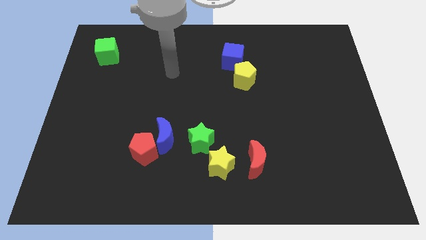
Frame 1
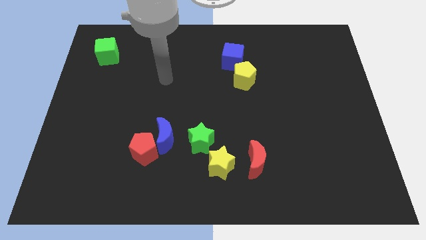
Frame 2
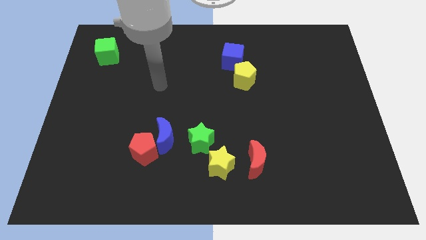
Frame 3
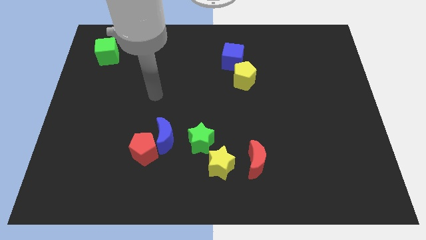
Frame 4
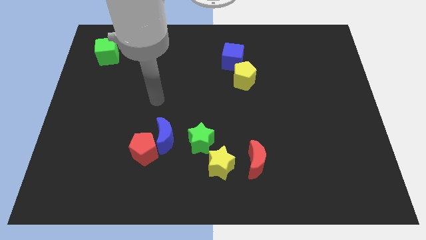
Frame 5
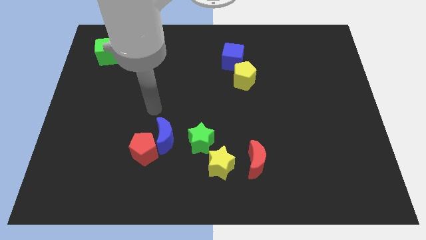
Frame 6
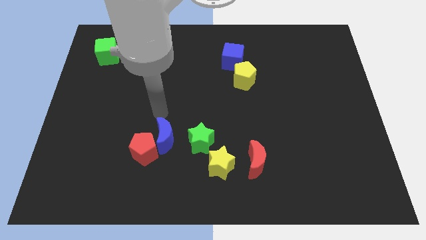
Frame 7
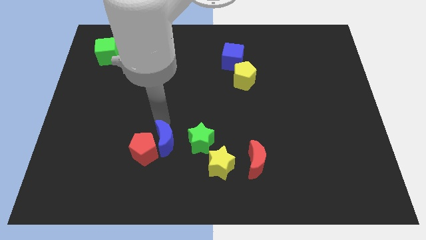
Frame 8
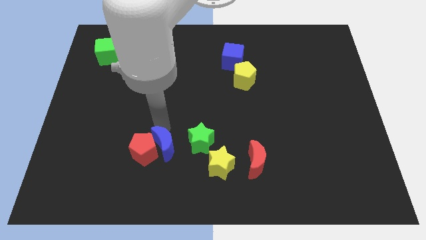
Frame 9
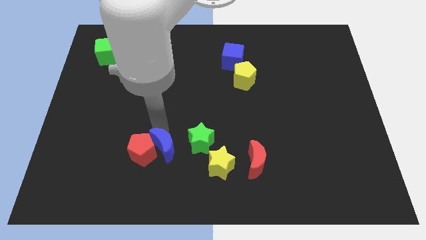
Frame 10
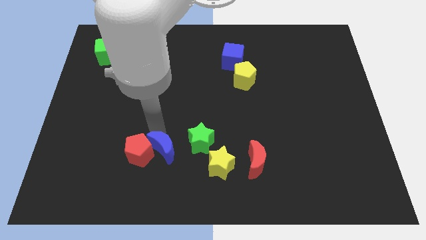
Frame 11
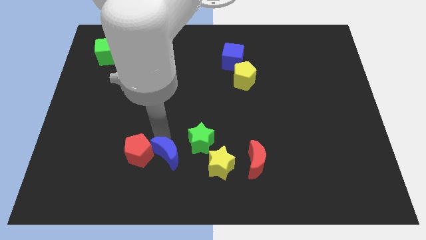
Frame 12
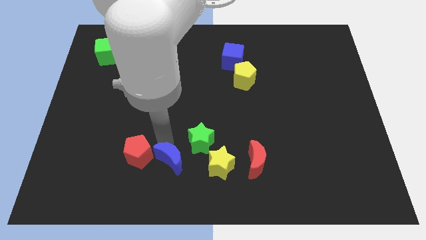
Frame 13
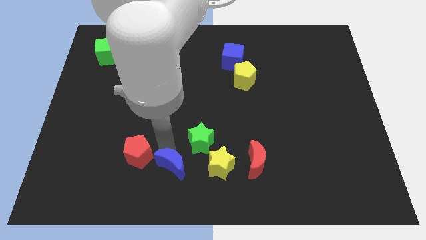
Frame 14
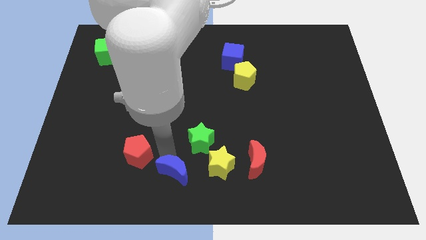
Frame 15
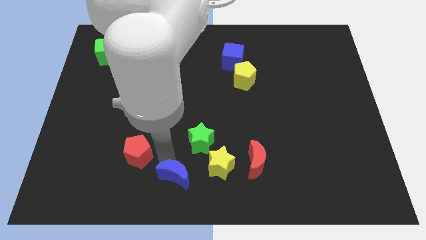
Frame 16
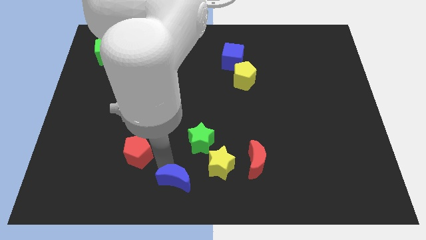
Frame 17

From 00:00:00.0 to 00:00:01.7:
move the red pentagon away from the blue moon

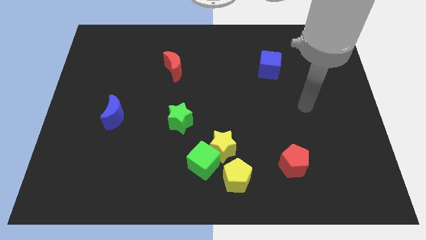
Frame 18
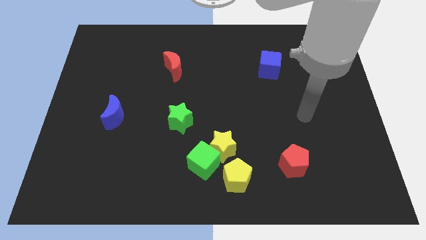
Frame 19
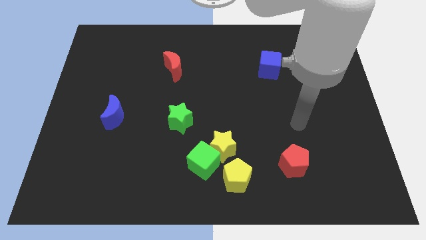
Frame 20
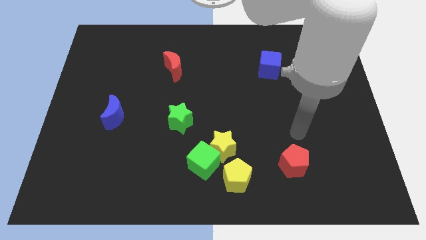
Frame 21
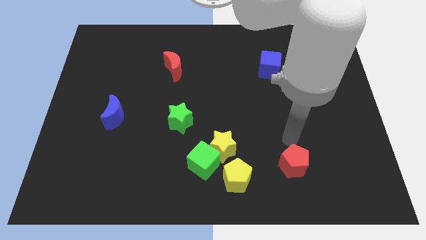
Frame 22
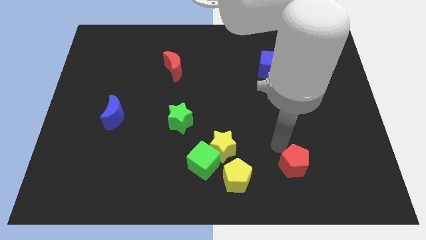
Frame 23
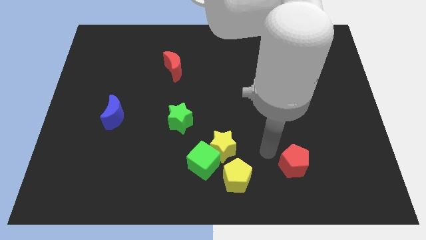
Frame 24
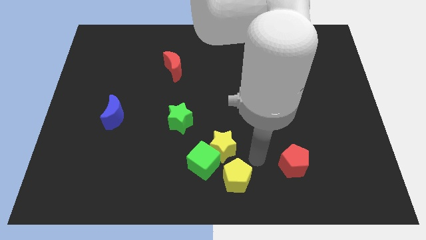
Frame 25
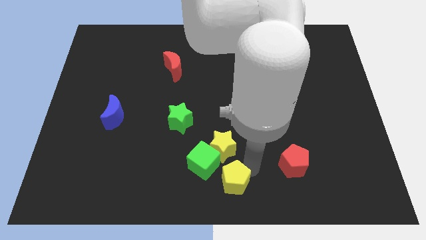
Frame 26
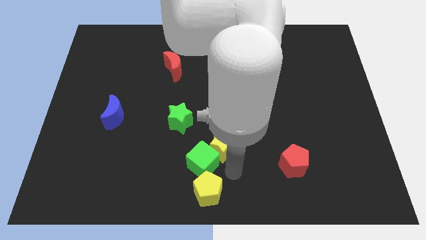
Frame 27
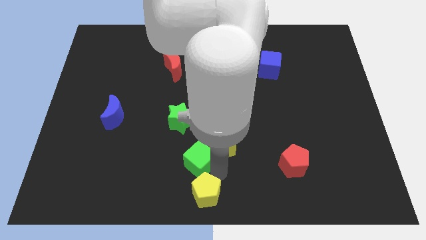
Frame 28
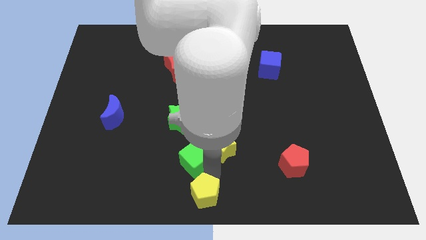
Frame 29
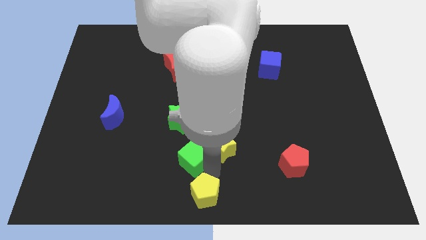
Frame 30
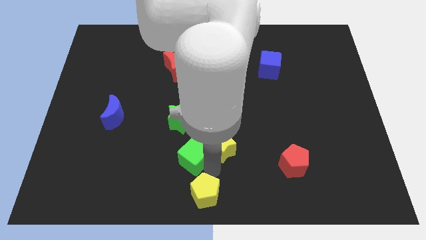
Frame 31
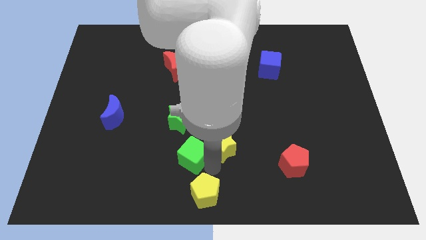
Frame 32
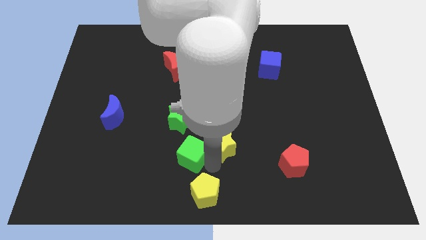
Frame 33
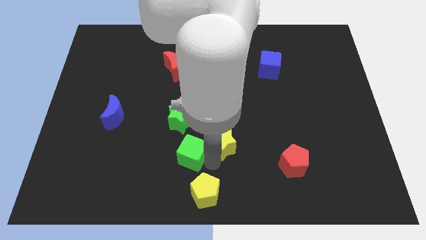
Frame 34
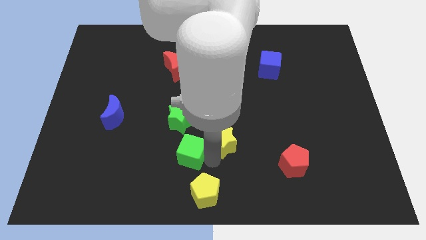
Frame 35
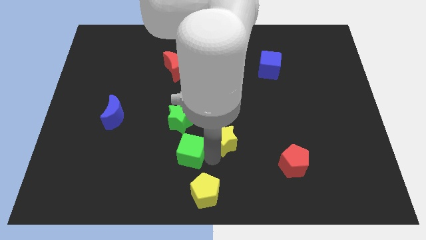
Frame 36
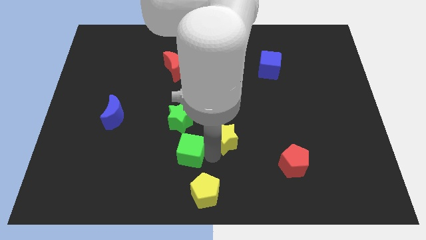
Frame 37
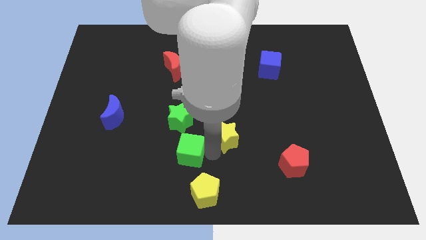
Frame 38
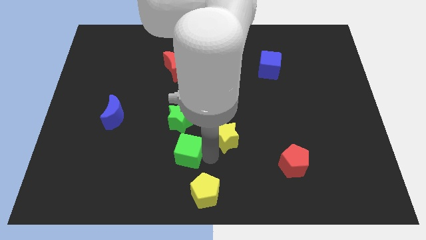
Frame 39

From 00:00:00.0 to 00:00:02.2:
pull the yellow star apart from the green cube and yellow pentagon

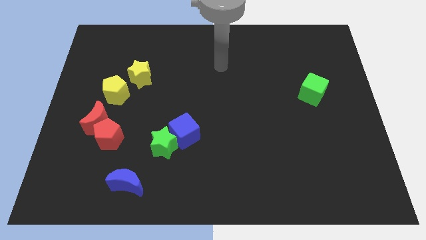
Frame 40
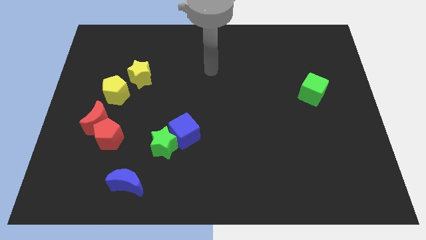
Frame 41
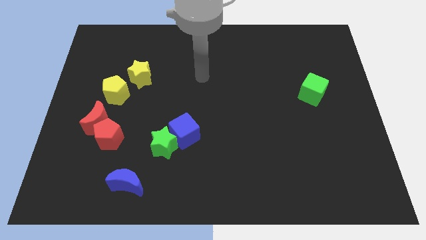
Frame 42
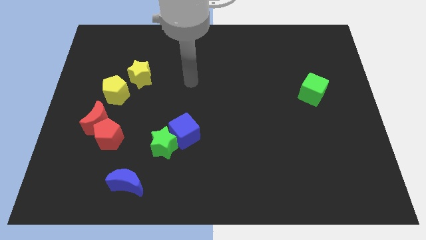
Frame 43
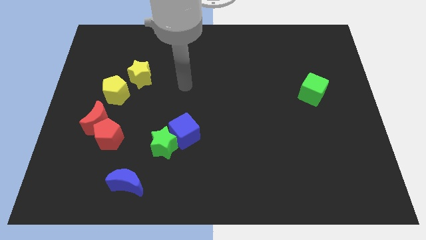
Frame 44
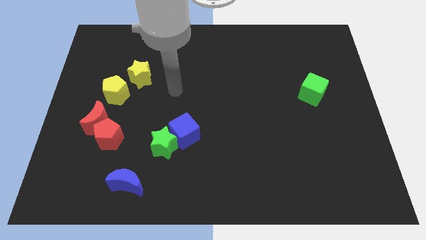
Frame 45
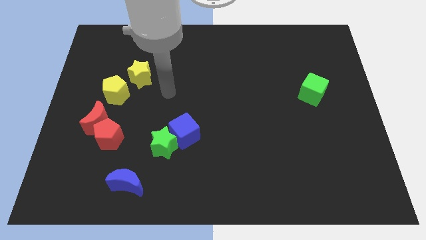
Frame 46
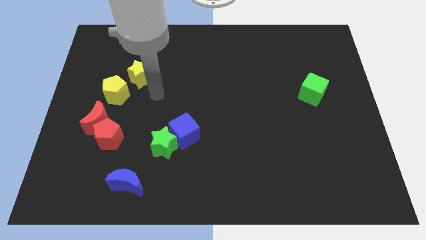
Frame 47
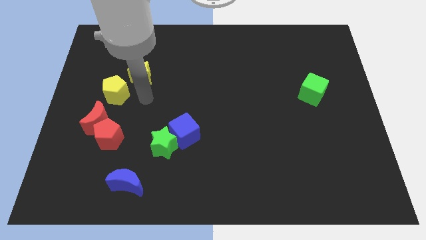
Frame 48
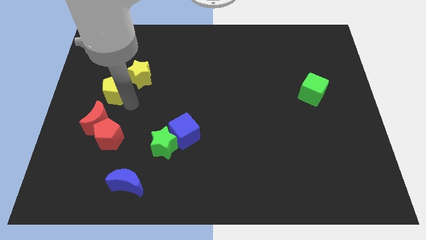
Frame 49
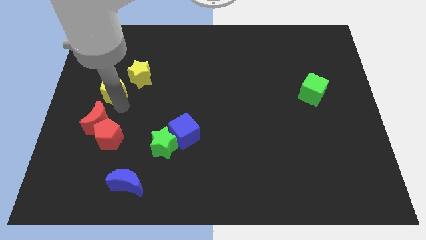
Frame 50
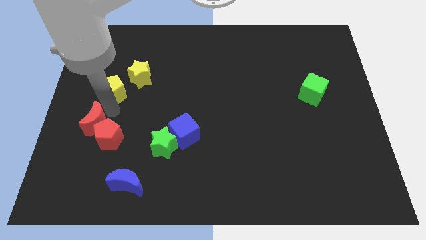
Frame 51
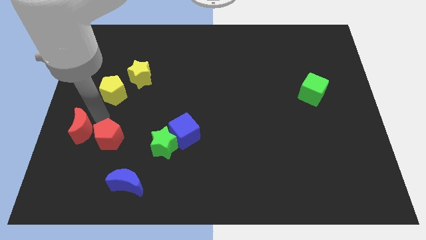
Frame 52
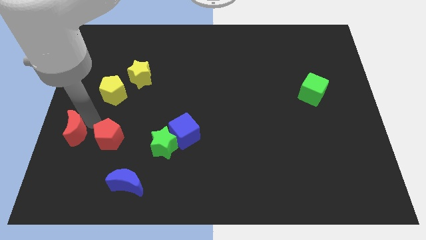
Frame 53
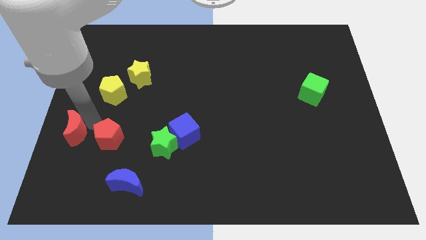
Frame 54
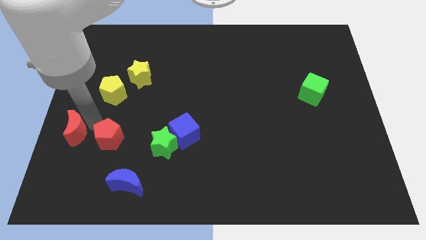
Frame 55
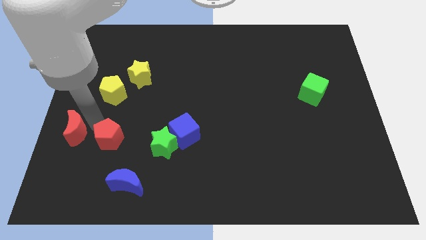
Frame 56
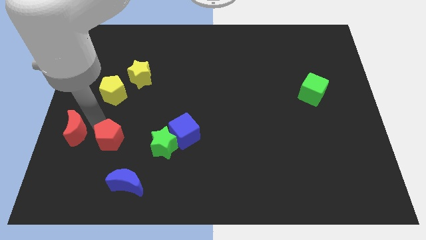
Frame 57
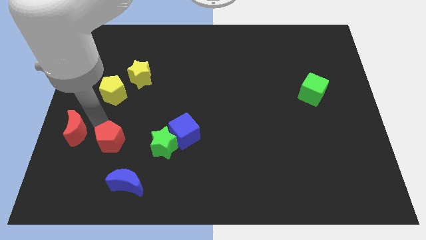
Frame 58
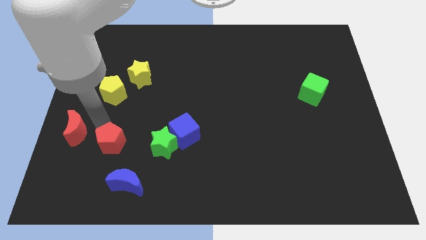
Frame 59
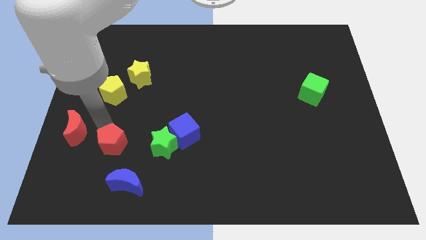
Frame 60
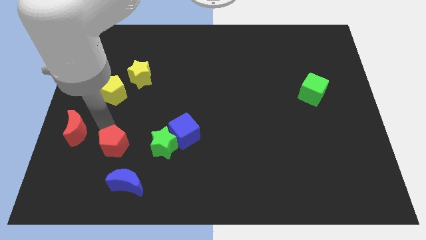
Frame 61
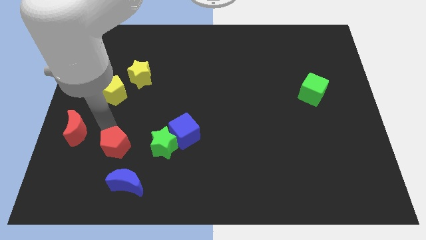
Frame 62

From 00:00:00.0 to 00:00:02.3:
separate the red pentagon from the red moon

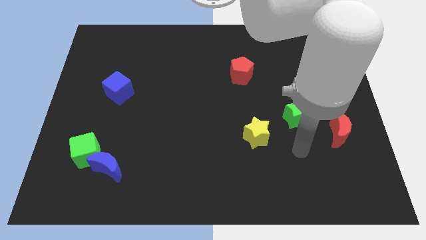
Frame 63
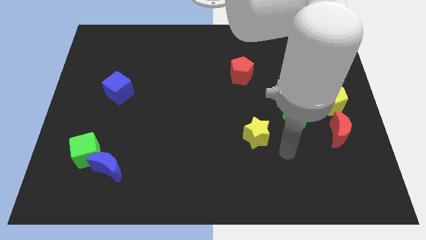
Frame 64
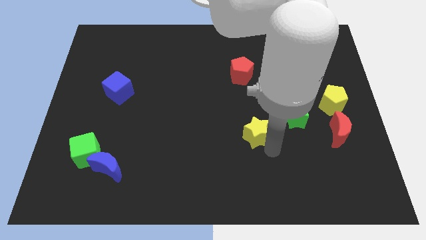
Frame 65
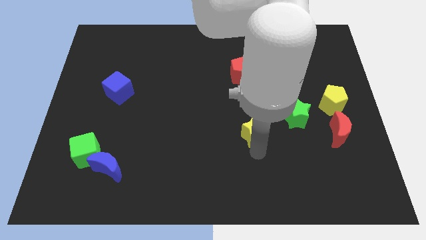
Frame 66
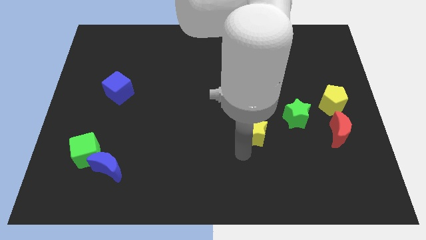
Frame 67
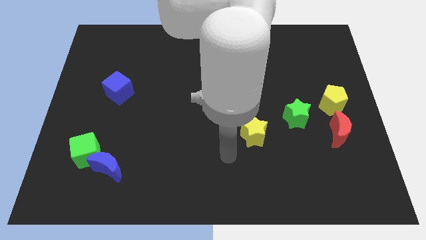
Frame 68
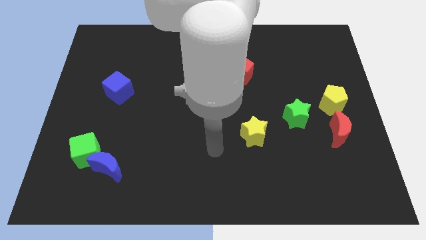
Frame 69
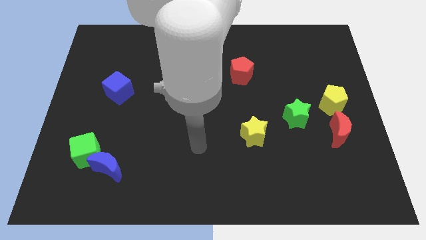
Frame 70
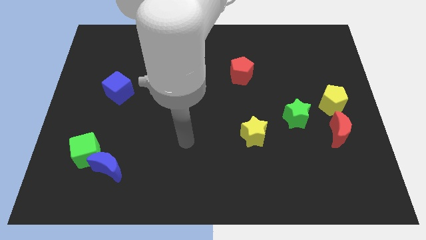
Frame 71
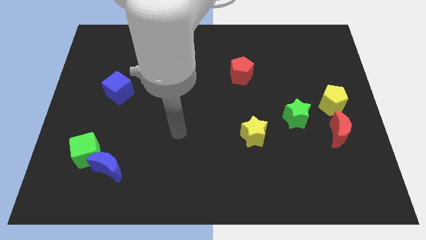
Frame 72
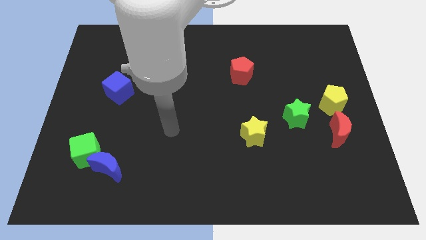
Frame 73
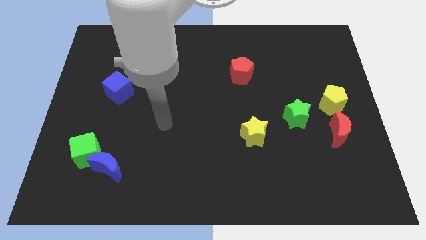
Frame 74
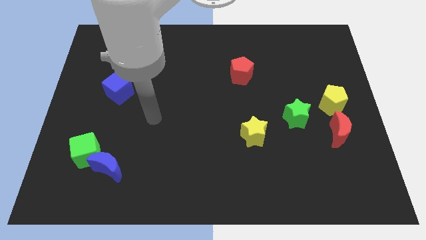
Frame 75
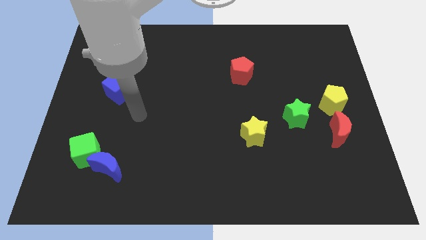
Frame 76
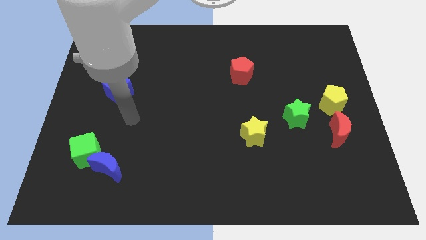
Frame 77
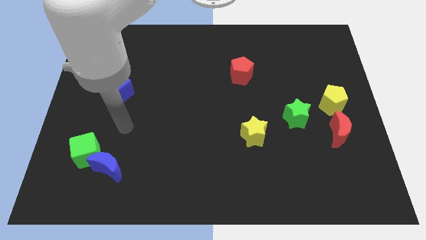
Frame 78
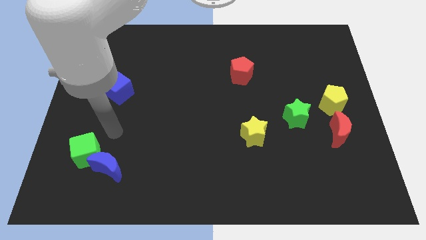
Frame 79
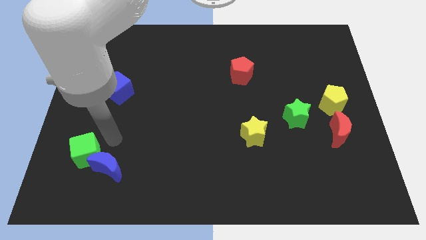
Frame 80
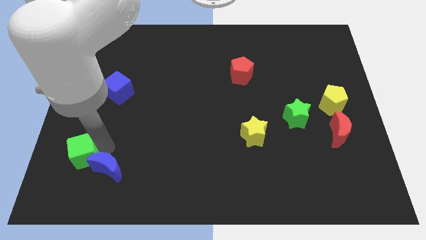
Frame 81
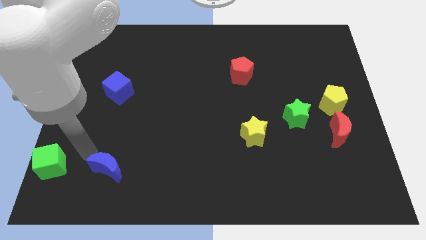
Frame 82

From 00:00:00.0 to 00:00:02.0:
move the blue moon away from the green cube

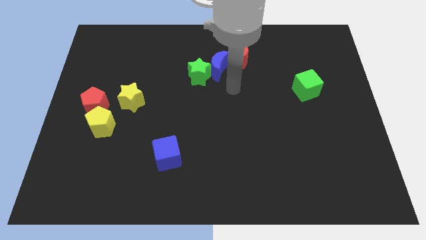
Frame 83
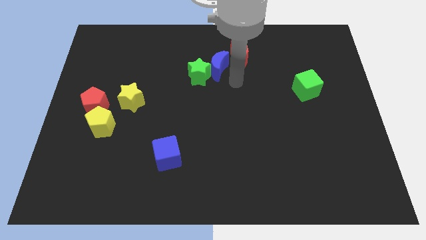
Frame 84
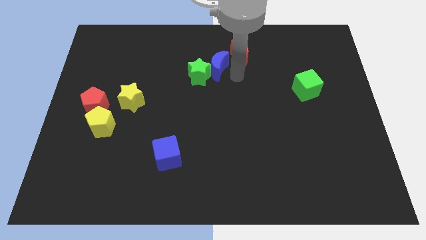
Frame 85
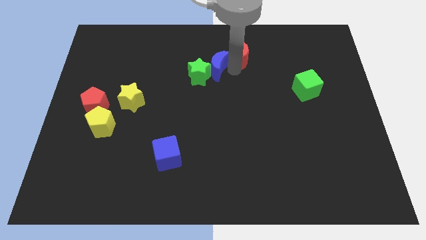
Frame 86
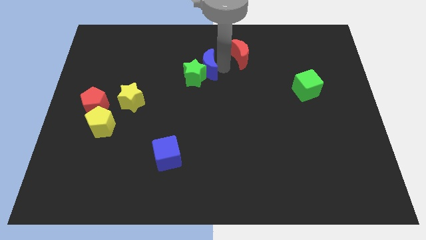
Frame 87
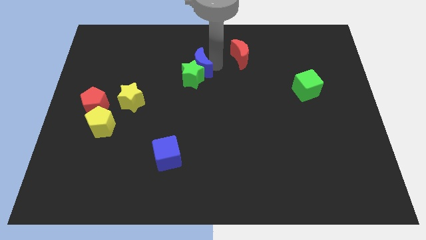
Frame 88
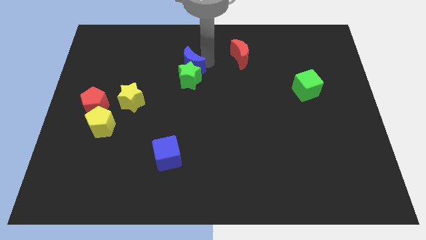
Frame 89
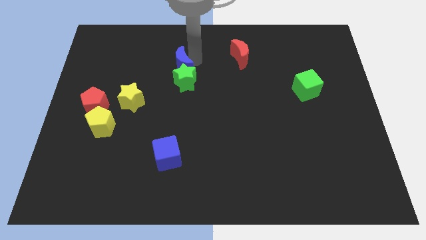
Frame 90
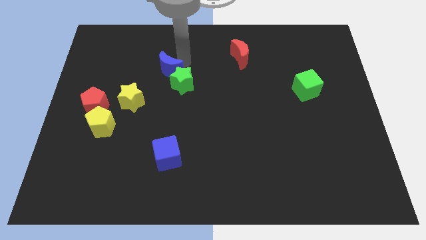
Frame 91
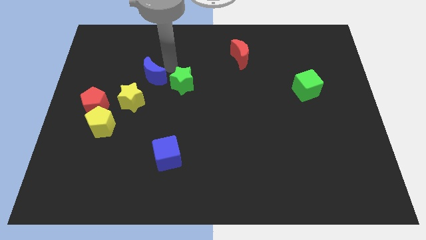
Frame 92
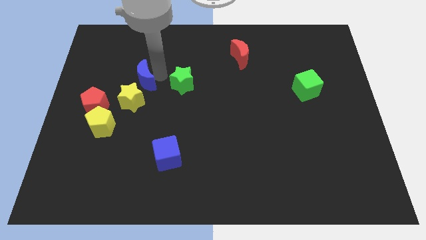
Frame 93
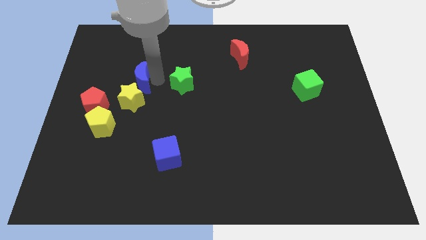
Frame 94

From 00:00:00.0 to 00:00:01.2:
pull the green star apart from the blue moon
